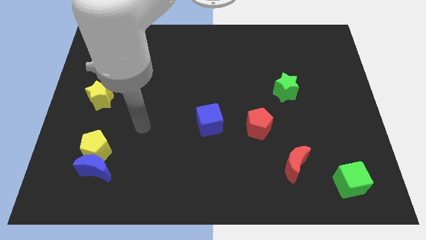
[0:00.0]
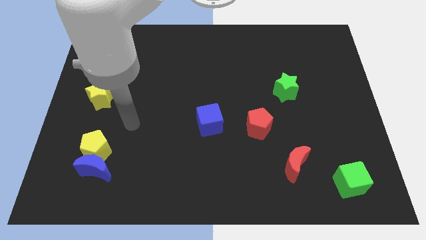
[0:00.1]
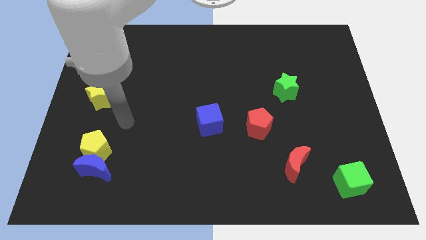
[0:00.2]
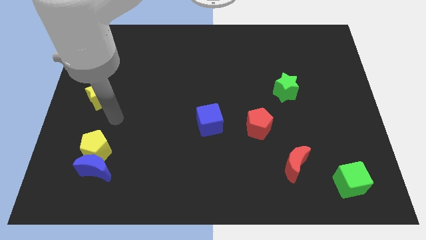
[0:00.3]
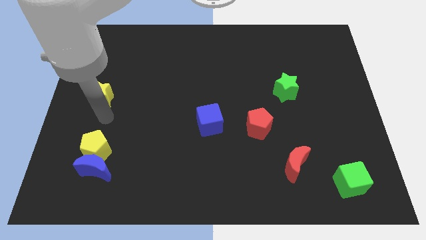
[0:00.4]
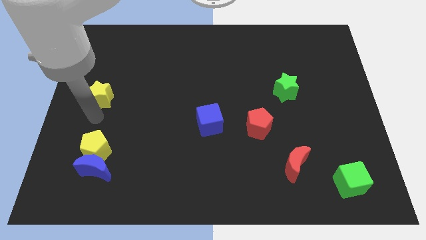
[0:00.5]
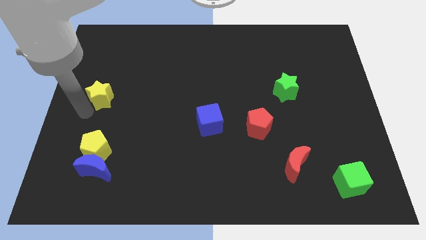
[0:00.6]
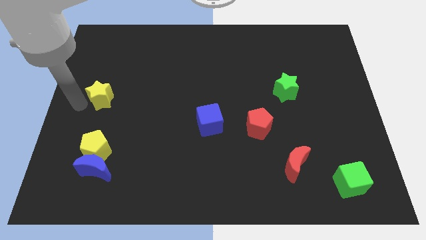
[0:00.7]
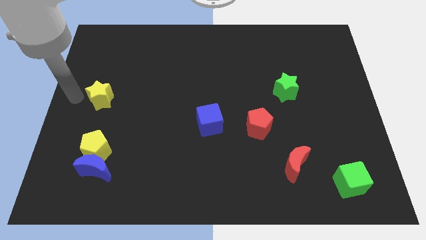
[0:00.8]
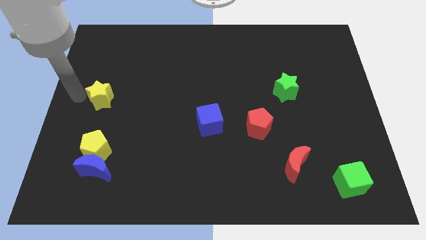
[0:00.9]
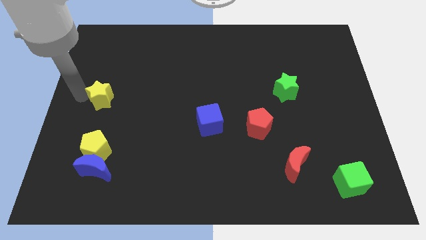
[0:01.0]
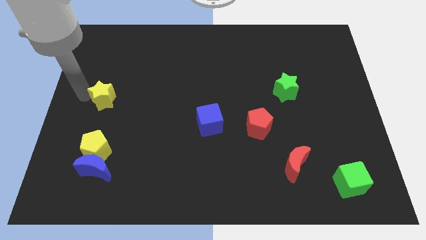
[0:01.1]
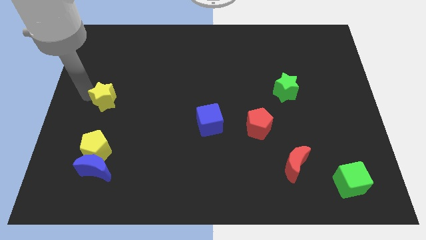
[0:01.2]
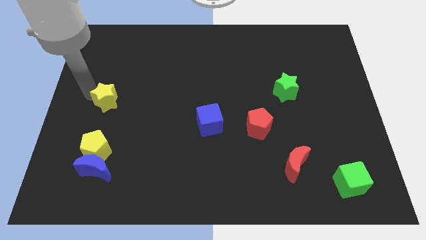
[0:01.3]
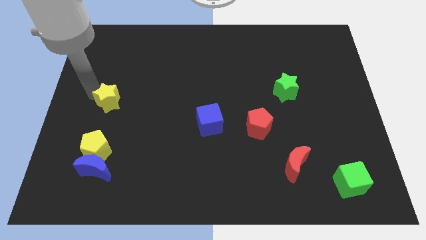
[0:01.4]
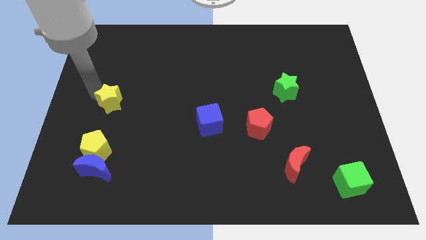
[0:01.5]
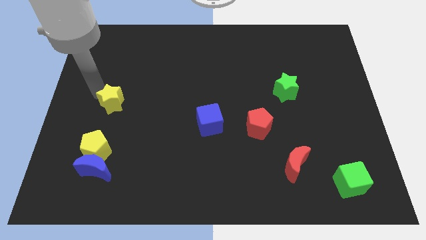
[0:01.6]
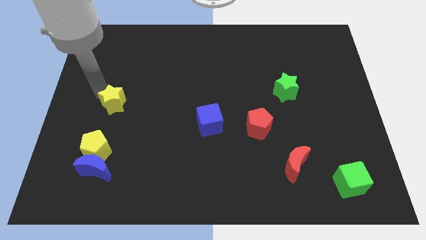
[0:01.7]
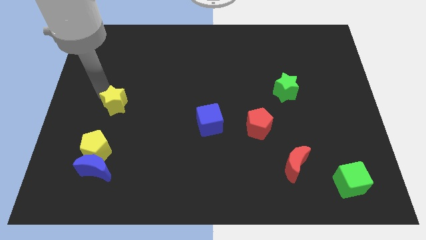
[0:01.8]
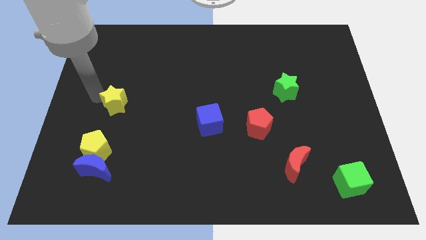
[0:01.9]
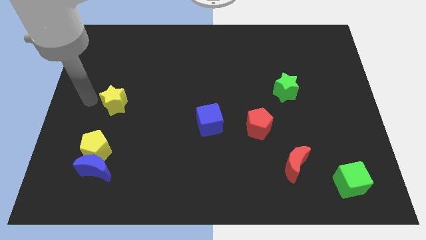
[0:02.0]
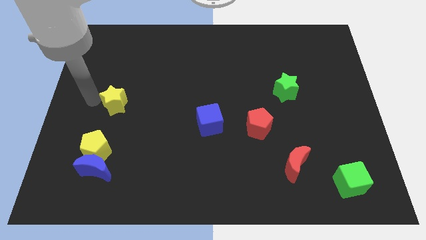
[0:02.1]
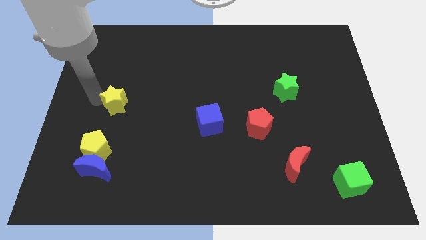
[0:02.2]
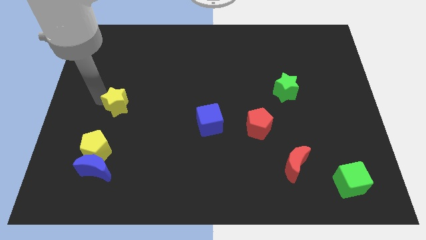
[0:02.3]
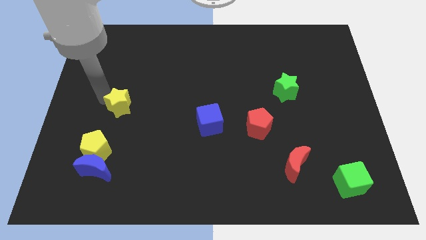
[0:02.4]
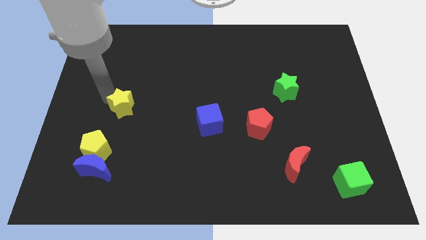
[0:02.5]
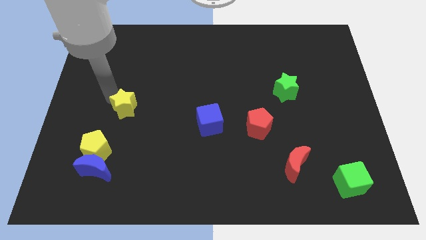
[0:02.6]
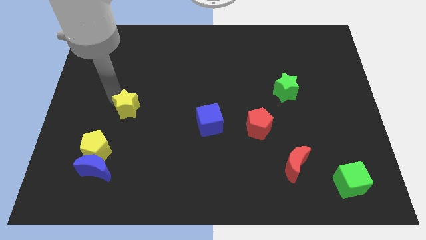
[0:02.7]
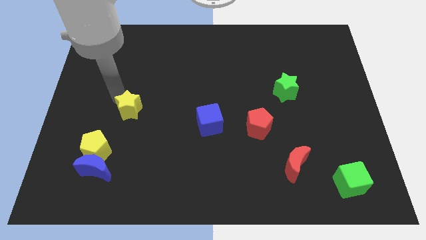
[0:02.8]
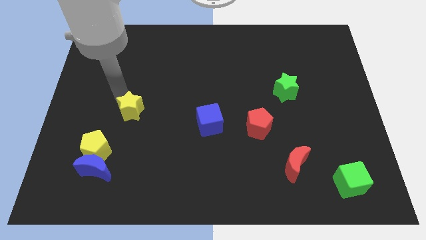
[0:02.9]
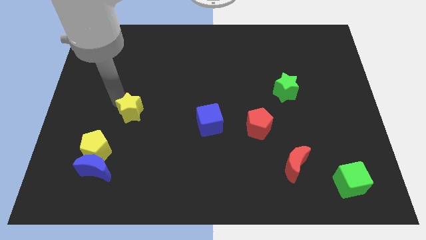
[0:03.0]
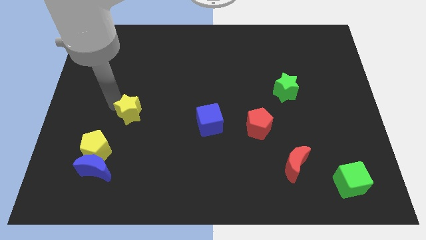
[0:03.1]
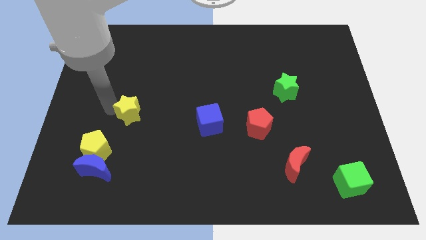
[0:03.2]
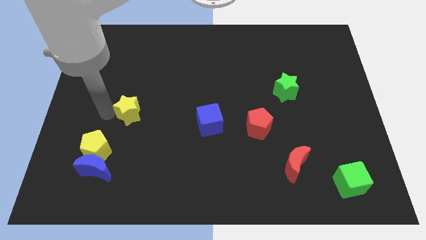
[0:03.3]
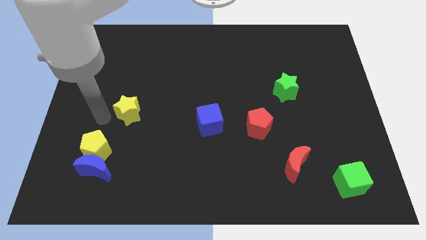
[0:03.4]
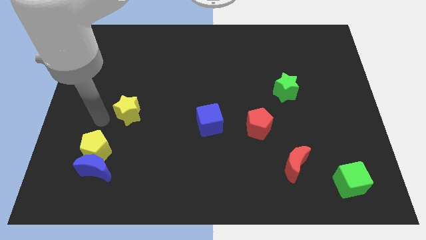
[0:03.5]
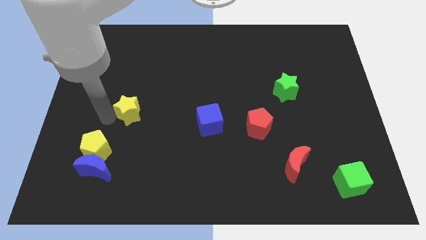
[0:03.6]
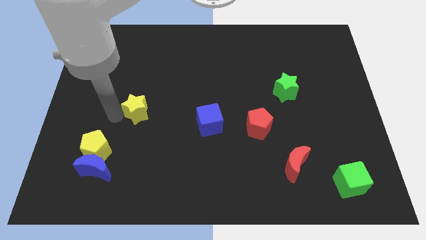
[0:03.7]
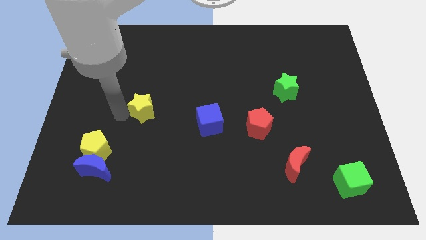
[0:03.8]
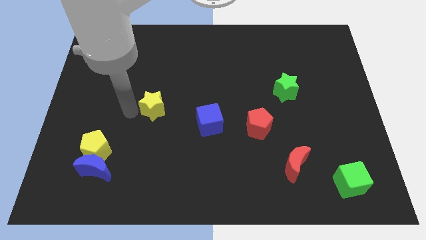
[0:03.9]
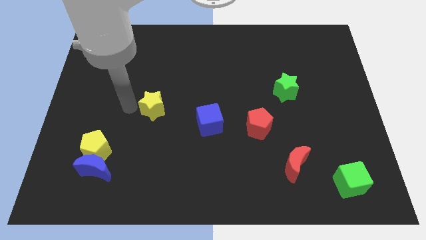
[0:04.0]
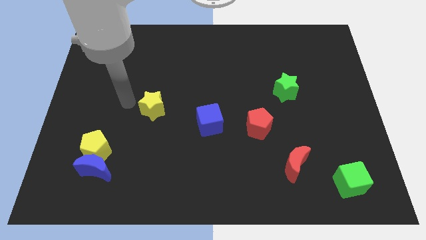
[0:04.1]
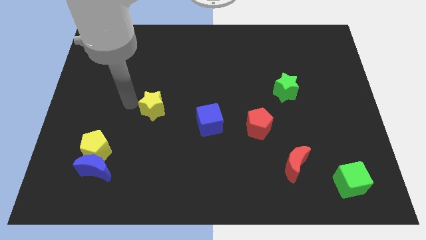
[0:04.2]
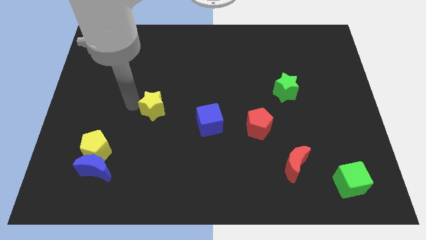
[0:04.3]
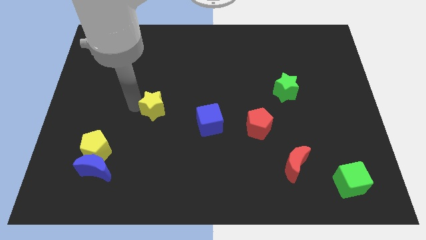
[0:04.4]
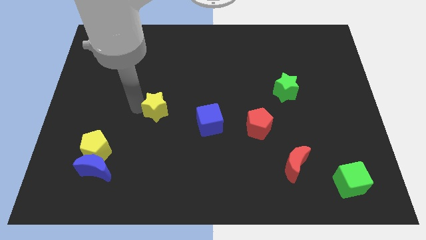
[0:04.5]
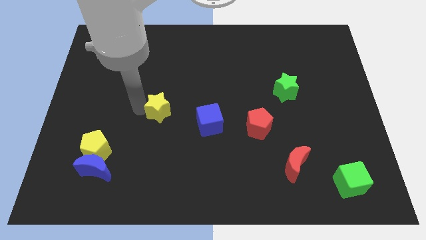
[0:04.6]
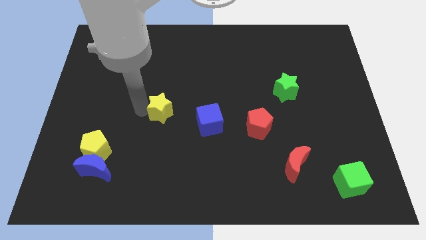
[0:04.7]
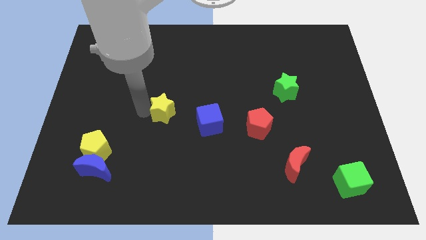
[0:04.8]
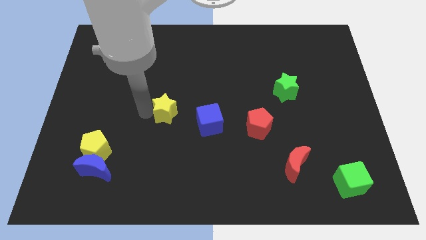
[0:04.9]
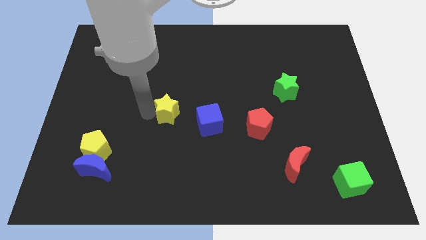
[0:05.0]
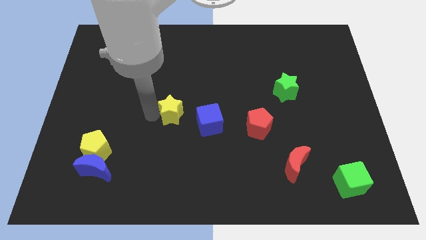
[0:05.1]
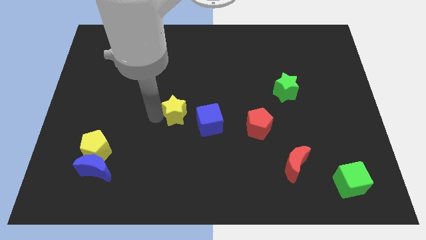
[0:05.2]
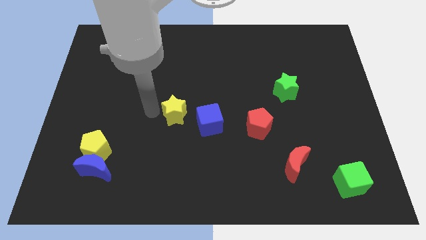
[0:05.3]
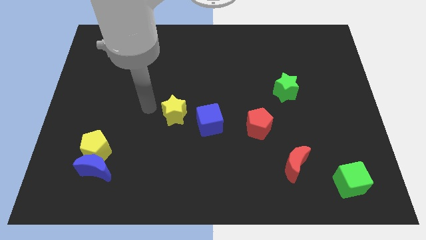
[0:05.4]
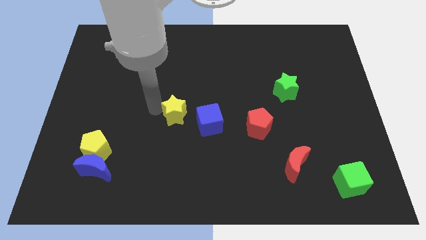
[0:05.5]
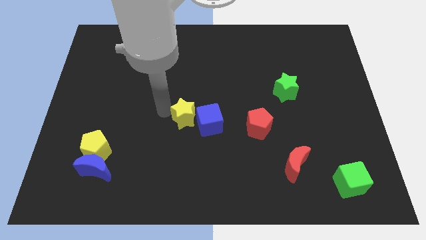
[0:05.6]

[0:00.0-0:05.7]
move the yellow star next to the blue cube

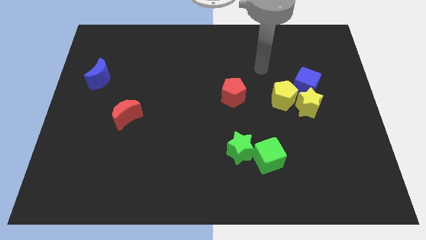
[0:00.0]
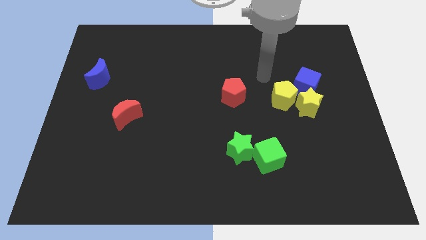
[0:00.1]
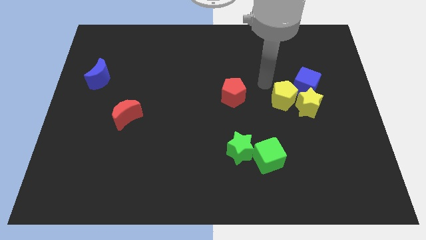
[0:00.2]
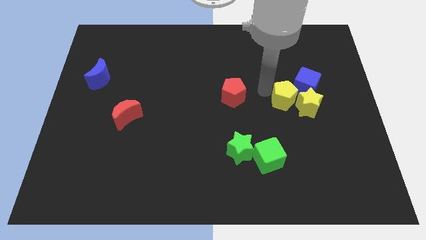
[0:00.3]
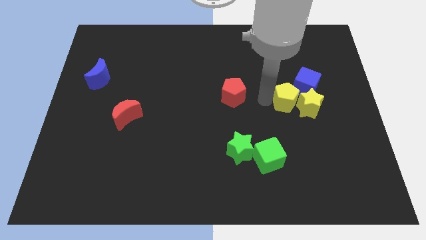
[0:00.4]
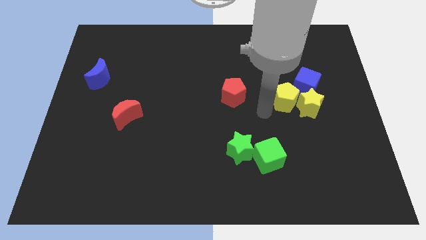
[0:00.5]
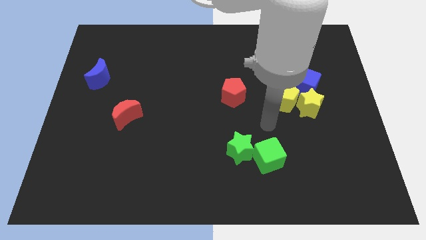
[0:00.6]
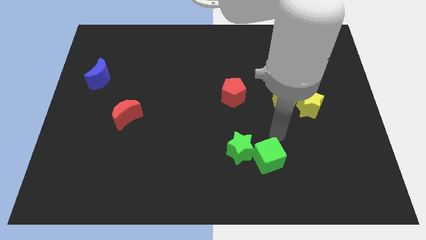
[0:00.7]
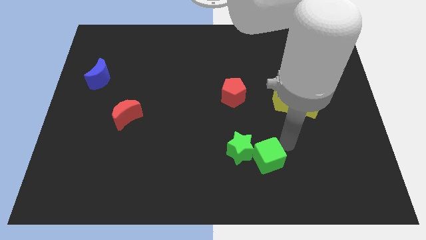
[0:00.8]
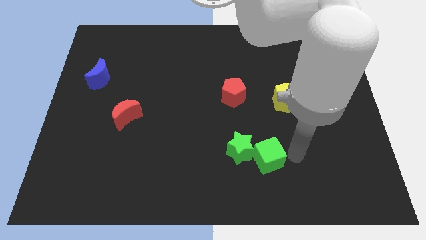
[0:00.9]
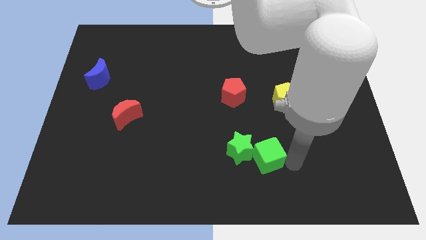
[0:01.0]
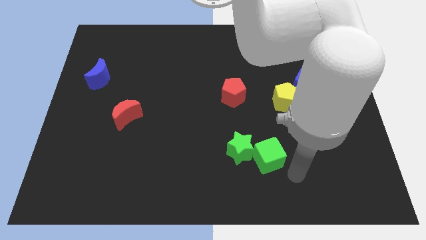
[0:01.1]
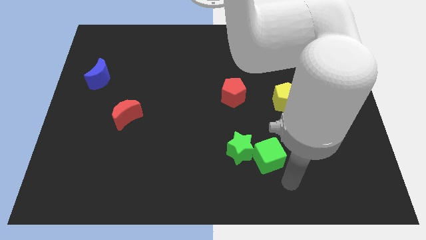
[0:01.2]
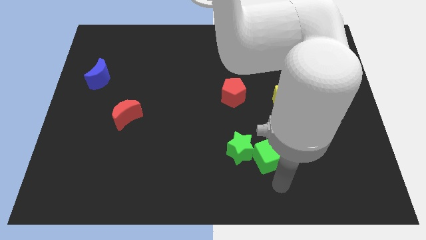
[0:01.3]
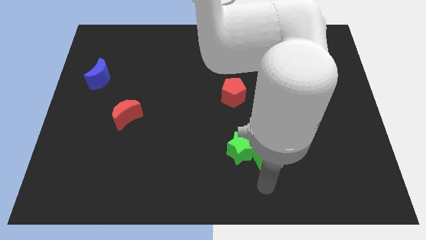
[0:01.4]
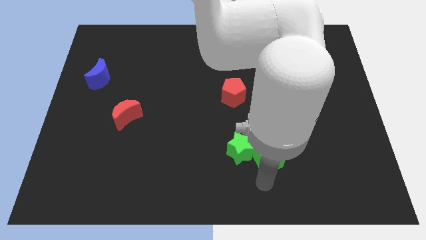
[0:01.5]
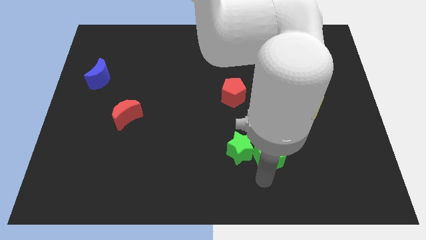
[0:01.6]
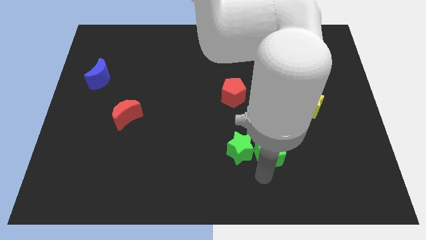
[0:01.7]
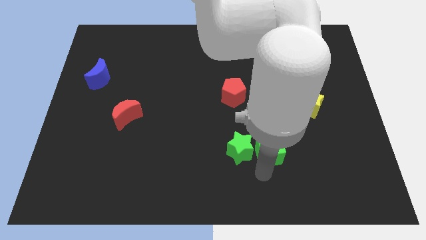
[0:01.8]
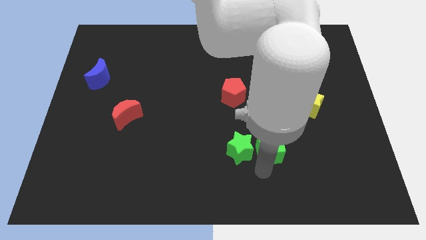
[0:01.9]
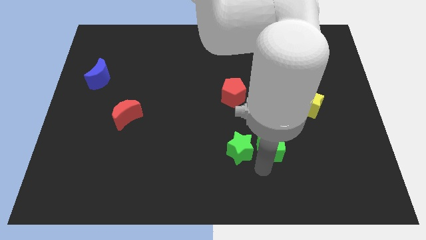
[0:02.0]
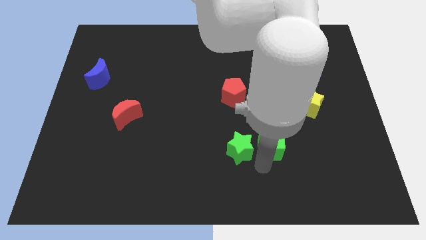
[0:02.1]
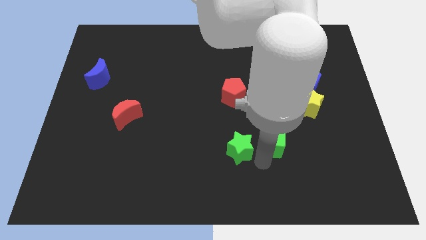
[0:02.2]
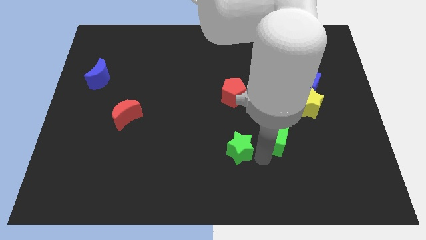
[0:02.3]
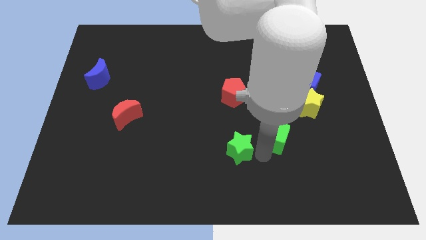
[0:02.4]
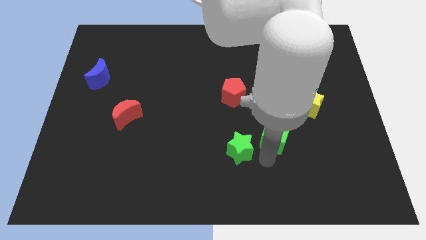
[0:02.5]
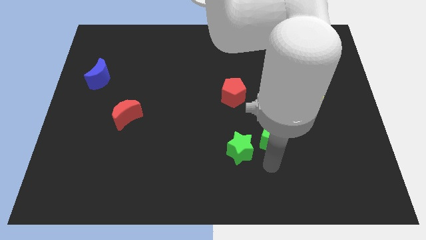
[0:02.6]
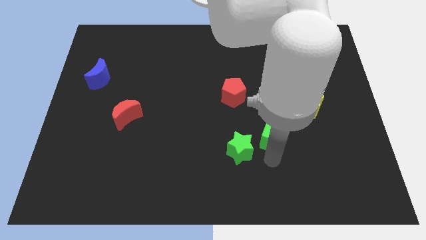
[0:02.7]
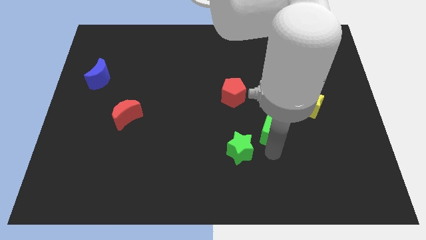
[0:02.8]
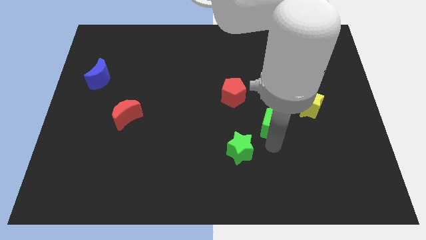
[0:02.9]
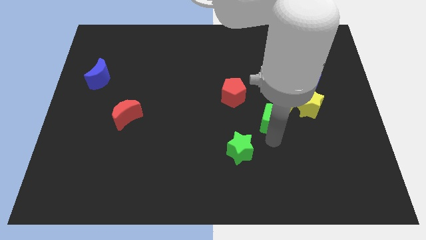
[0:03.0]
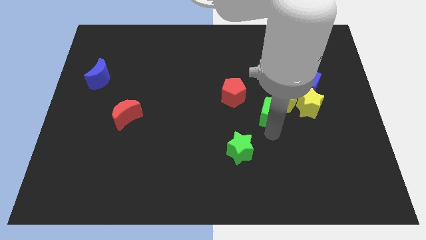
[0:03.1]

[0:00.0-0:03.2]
slide the green cube to the yellow pentagon
